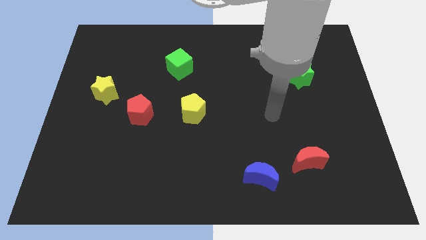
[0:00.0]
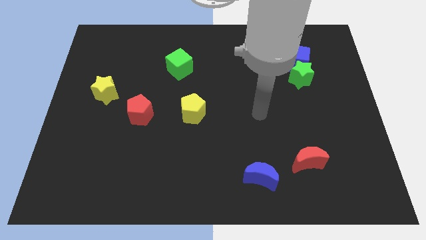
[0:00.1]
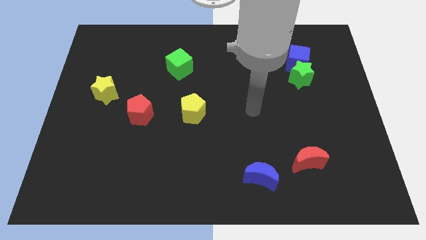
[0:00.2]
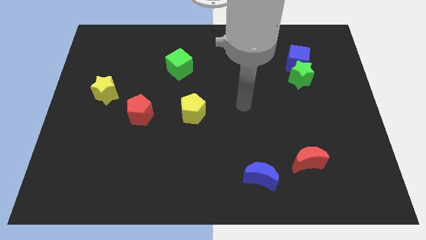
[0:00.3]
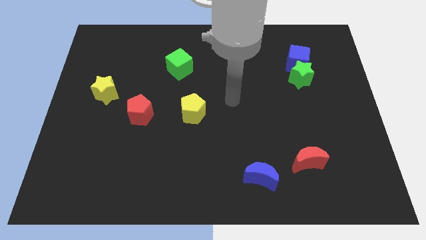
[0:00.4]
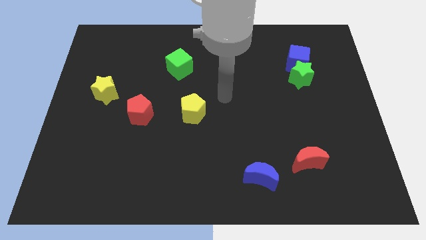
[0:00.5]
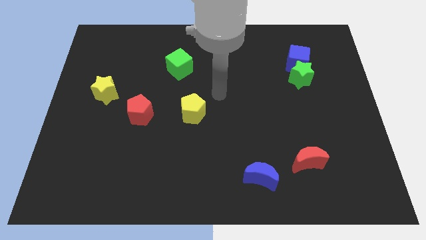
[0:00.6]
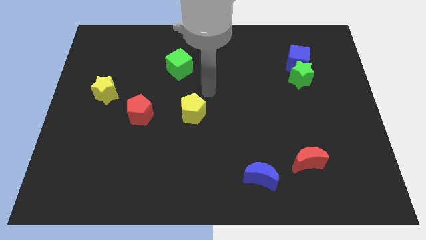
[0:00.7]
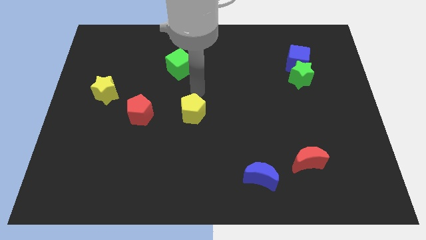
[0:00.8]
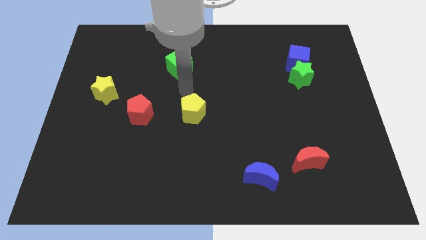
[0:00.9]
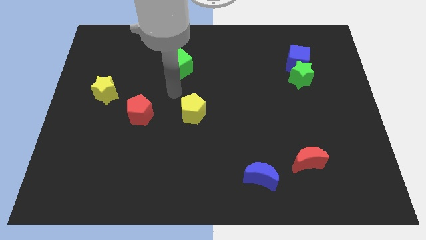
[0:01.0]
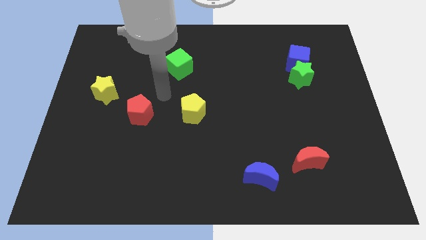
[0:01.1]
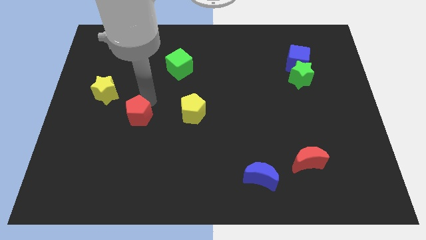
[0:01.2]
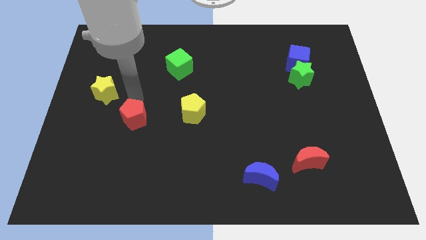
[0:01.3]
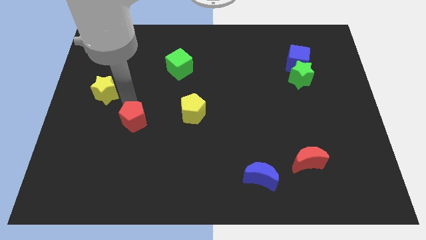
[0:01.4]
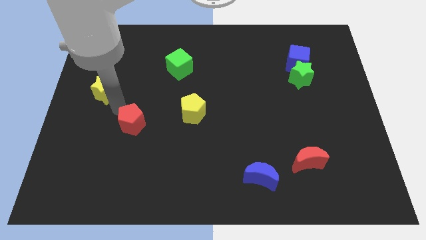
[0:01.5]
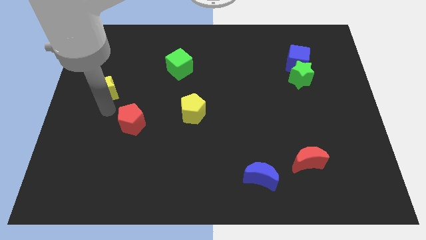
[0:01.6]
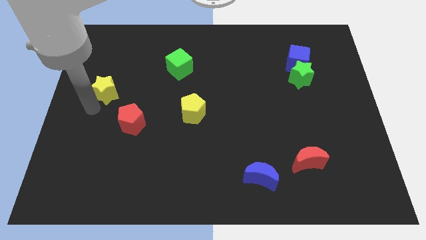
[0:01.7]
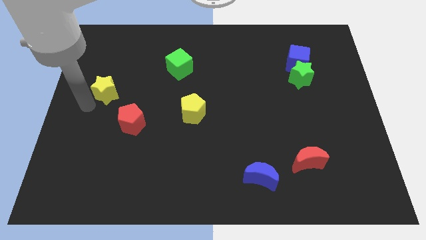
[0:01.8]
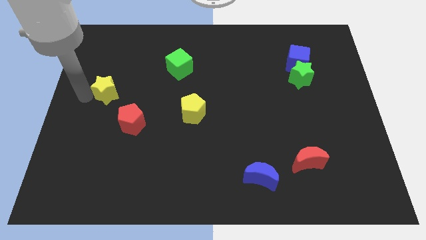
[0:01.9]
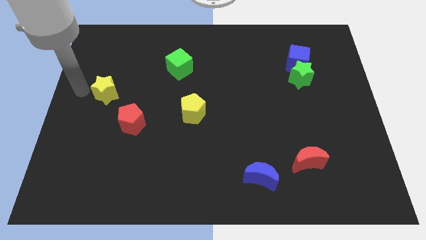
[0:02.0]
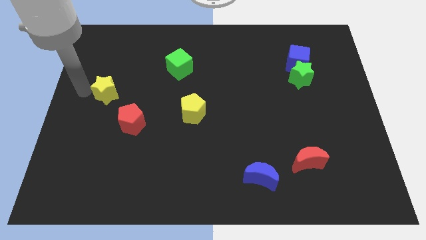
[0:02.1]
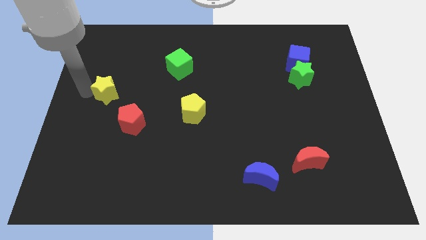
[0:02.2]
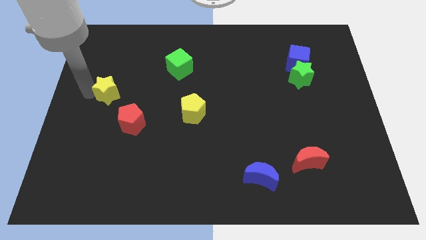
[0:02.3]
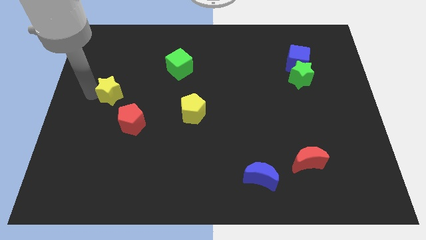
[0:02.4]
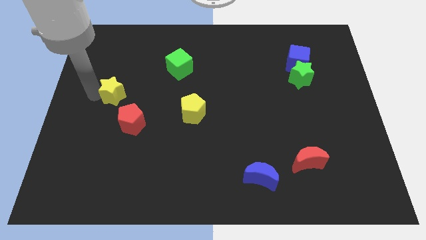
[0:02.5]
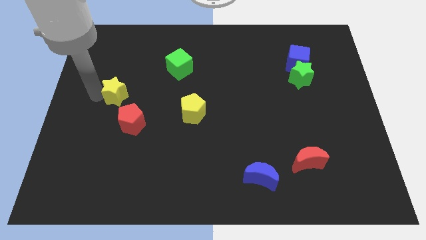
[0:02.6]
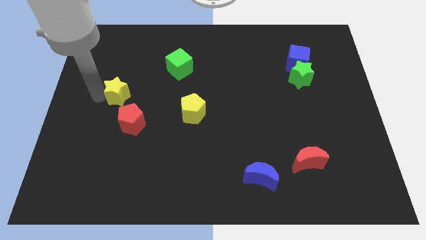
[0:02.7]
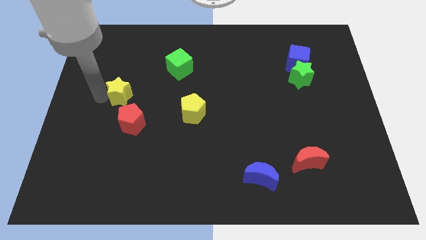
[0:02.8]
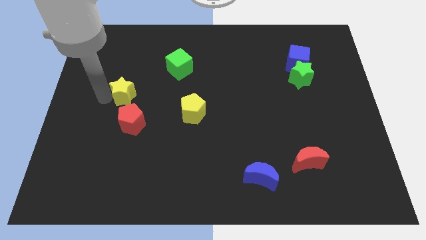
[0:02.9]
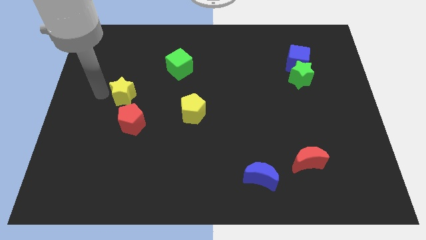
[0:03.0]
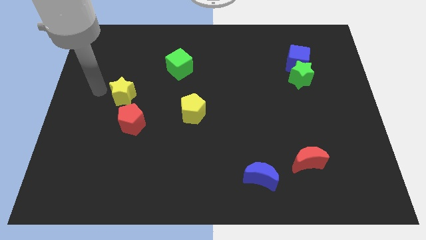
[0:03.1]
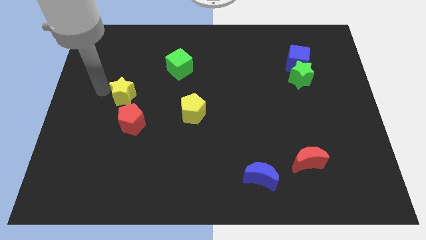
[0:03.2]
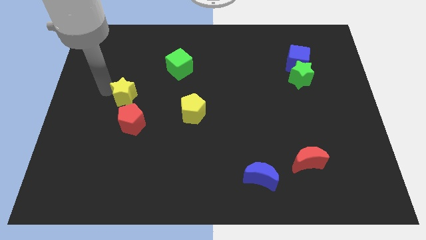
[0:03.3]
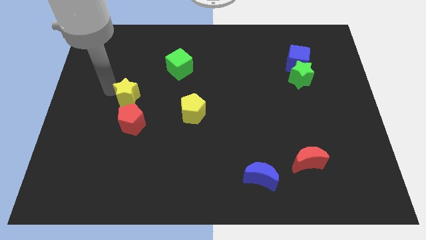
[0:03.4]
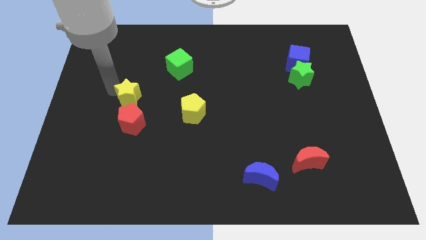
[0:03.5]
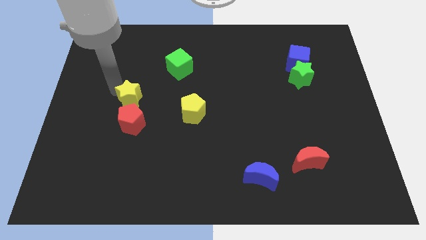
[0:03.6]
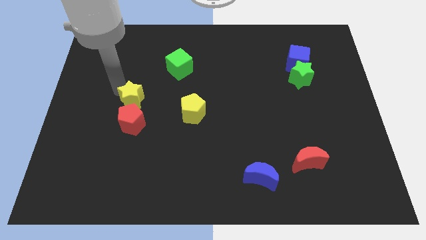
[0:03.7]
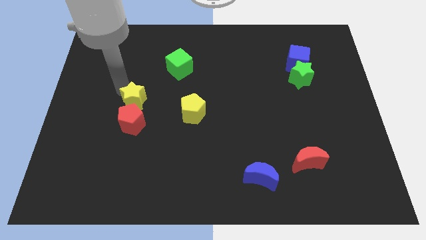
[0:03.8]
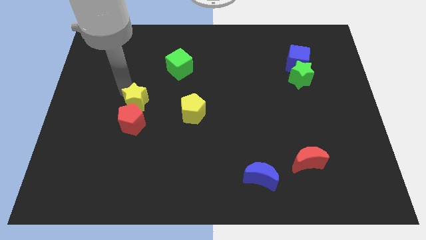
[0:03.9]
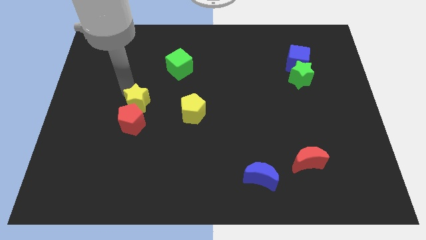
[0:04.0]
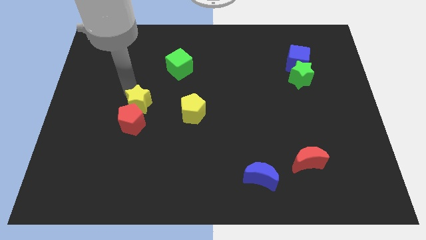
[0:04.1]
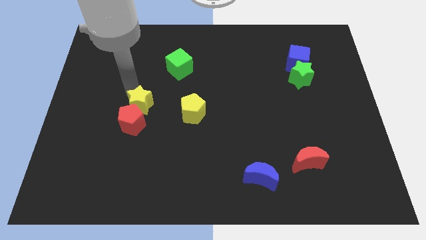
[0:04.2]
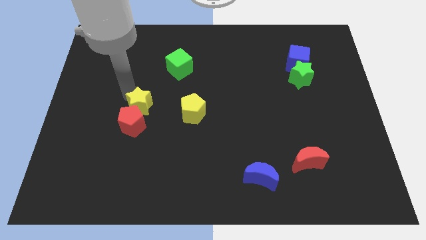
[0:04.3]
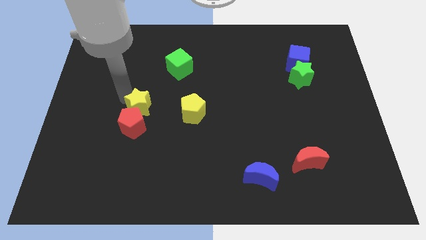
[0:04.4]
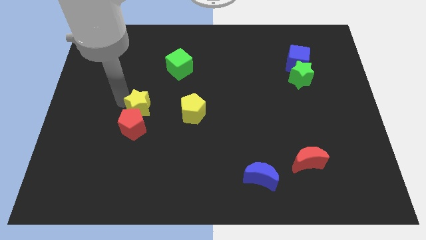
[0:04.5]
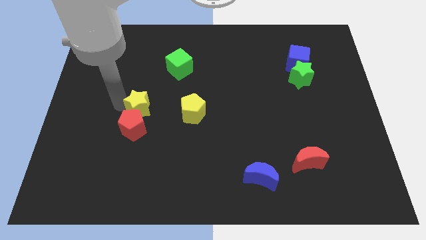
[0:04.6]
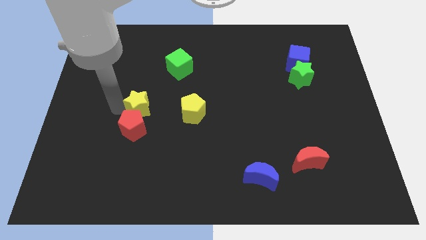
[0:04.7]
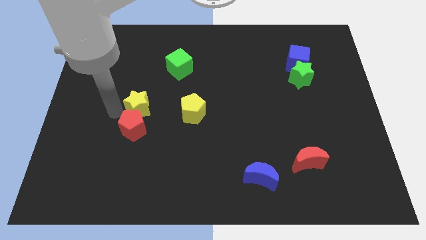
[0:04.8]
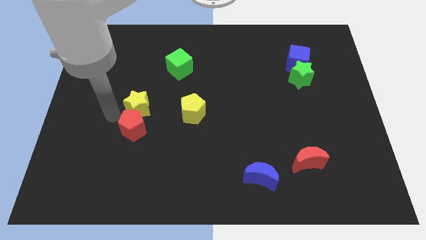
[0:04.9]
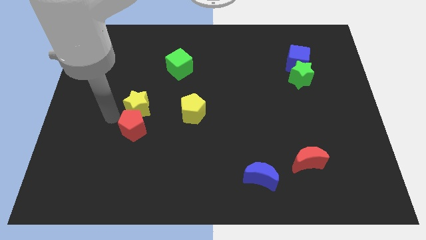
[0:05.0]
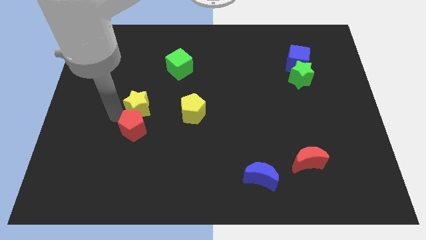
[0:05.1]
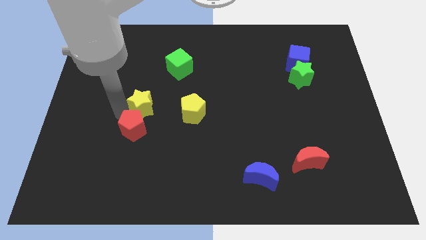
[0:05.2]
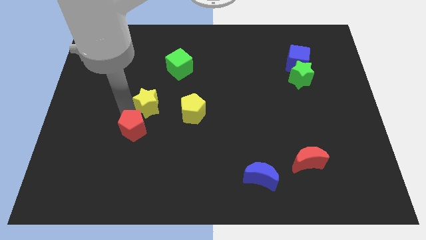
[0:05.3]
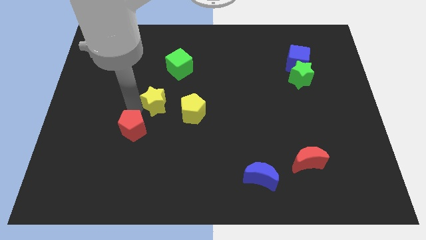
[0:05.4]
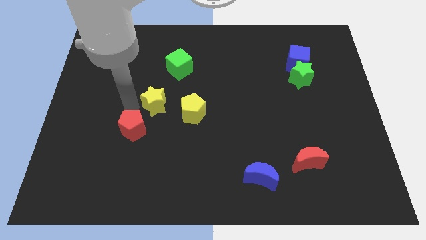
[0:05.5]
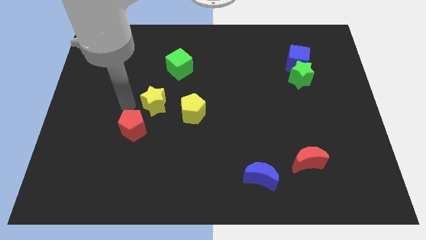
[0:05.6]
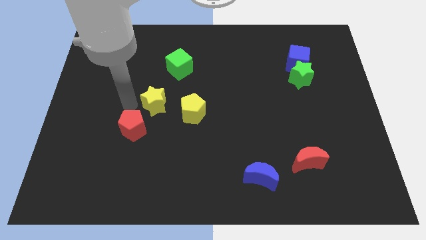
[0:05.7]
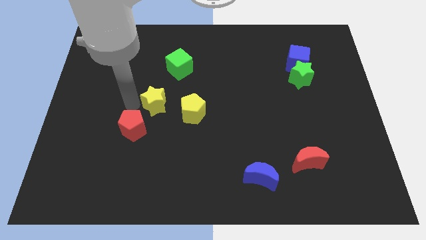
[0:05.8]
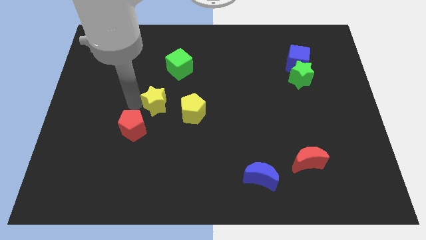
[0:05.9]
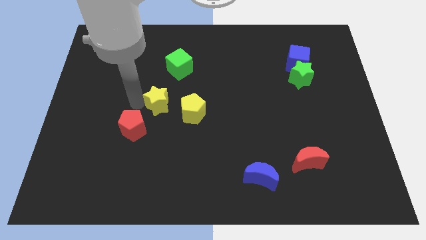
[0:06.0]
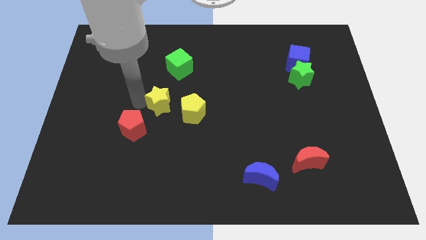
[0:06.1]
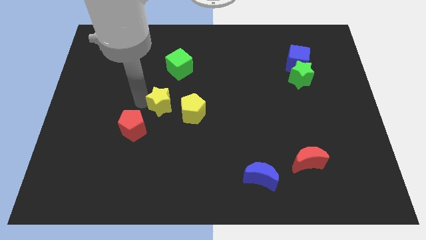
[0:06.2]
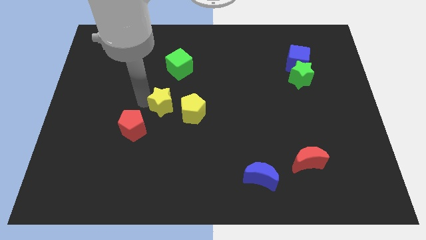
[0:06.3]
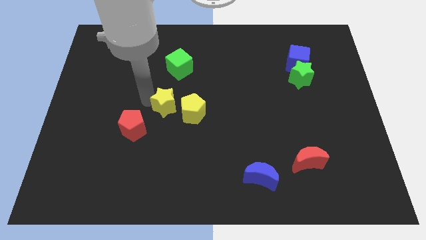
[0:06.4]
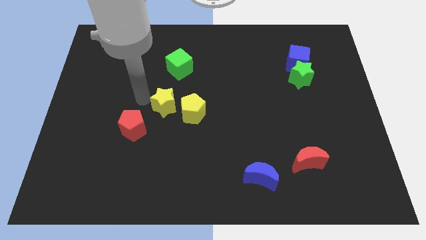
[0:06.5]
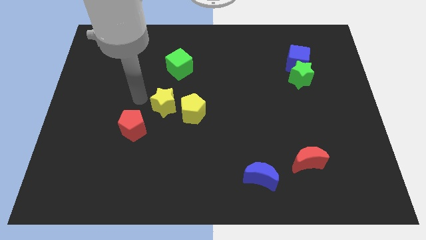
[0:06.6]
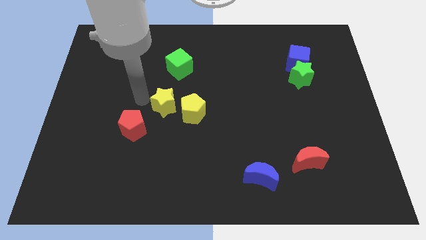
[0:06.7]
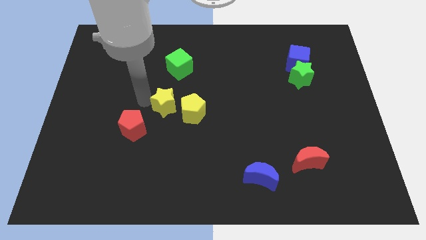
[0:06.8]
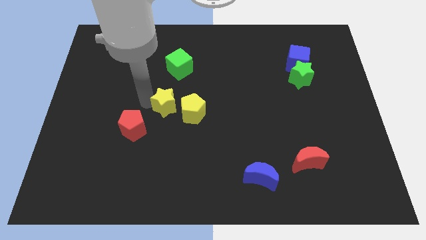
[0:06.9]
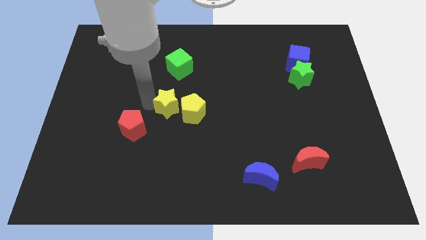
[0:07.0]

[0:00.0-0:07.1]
move the yellow star to the yellow pentagon
